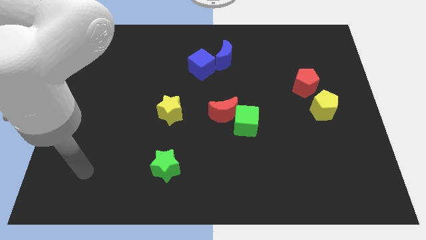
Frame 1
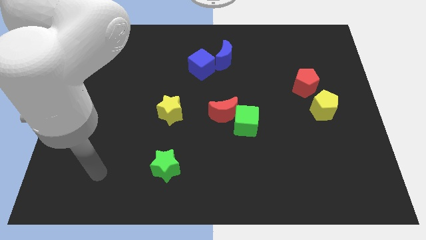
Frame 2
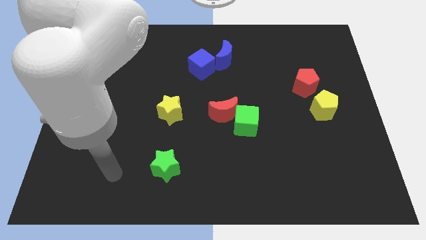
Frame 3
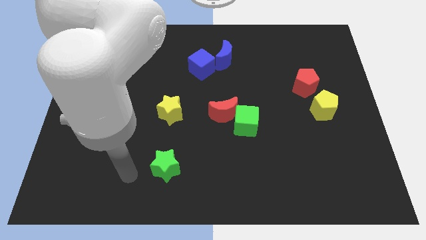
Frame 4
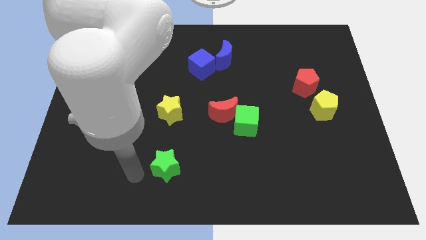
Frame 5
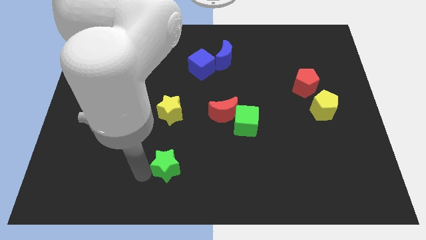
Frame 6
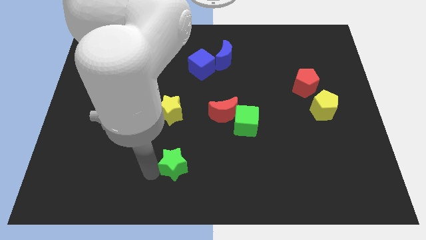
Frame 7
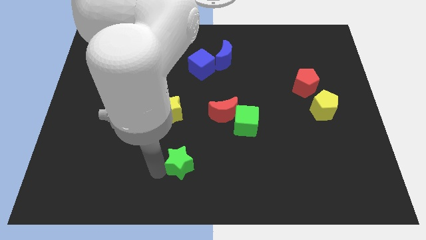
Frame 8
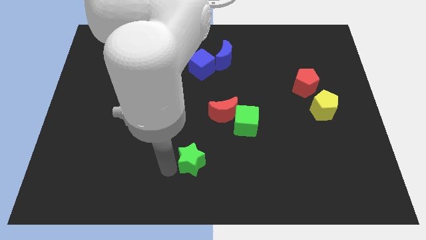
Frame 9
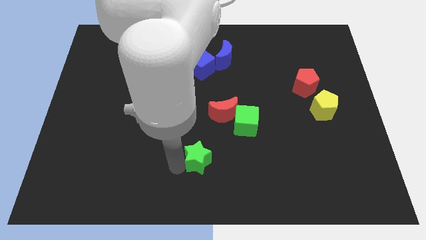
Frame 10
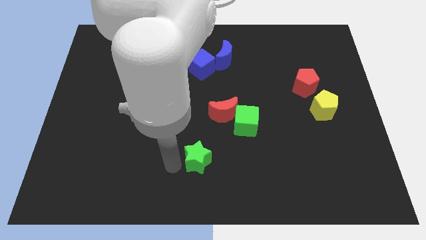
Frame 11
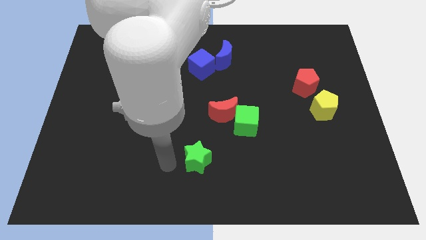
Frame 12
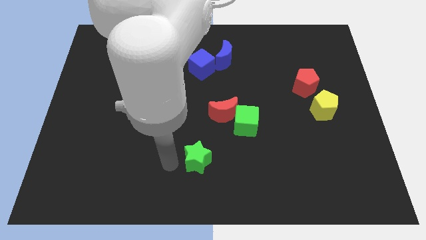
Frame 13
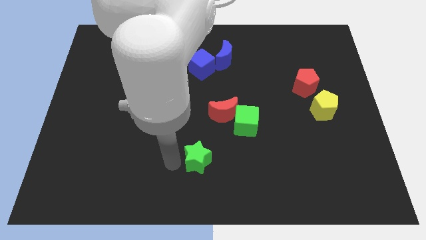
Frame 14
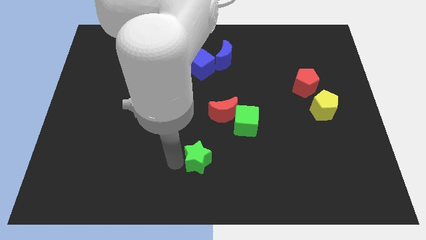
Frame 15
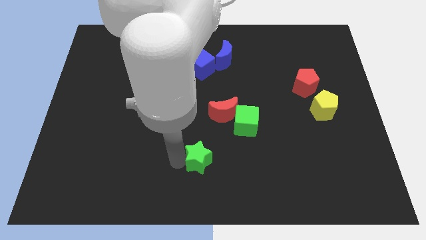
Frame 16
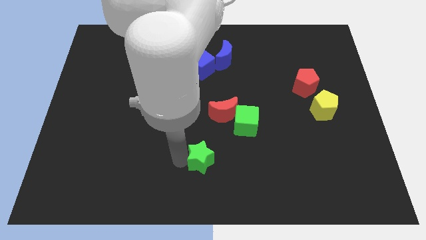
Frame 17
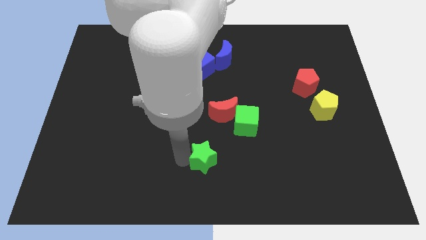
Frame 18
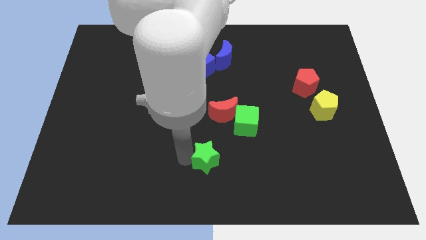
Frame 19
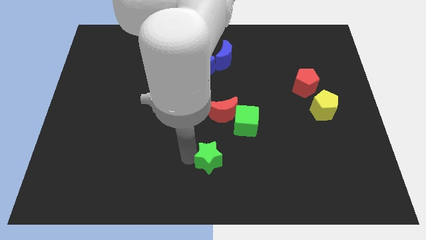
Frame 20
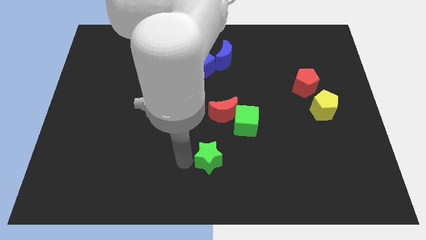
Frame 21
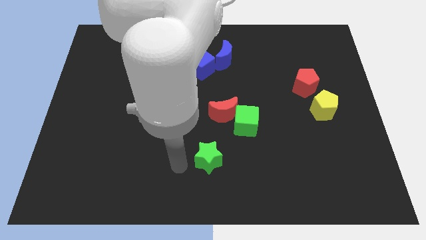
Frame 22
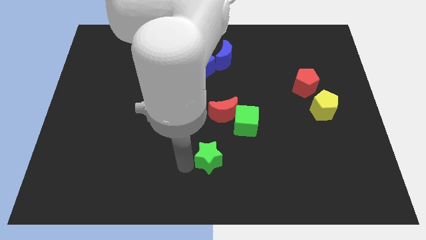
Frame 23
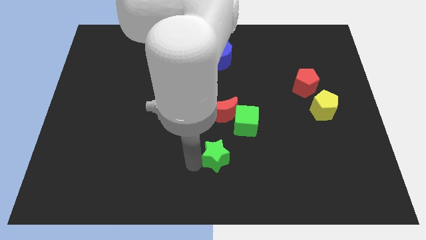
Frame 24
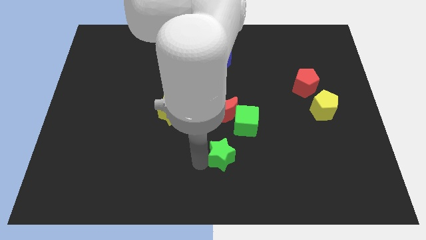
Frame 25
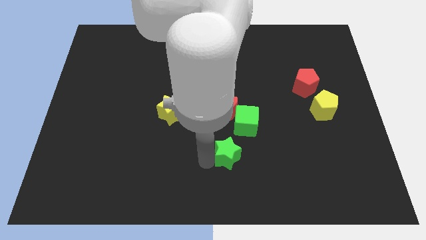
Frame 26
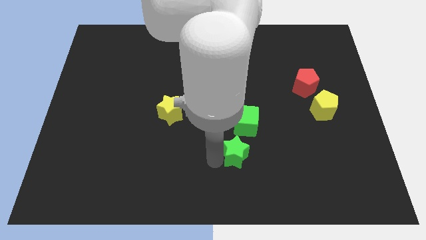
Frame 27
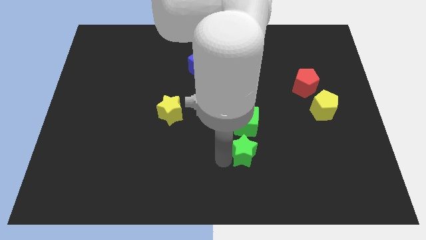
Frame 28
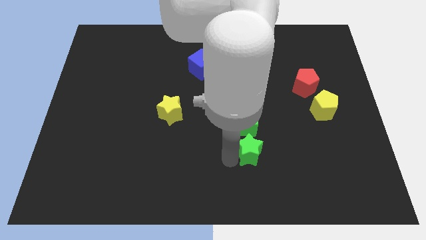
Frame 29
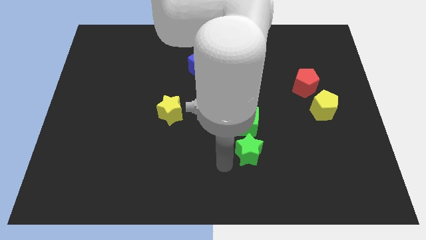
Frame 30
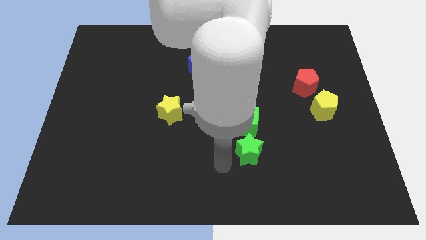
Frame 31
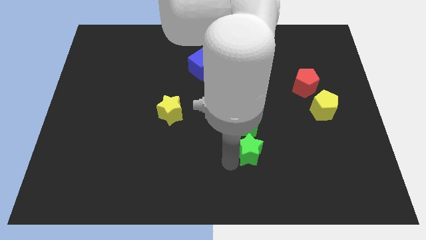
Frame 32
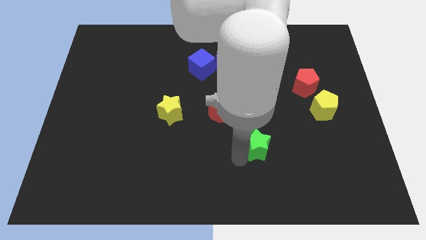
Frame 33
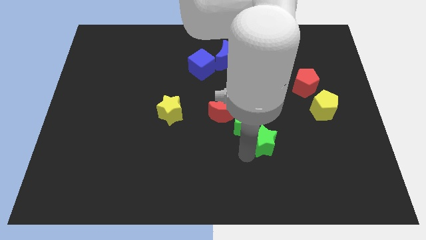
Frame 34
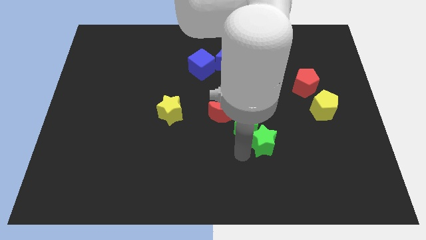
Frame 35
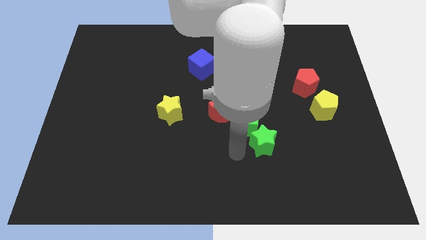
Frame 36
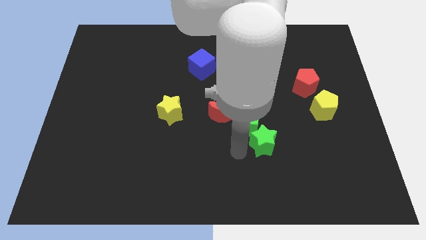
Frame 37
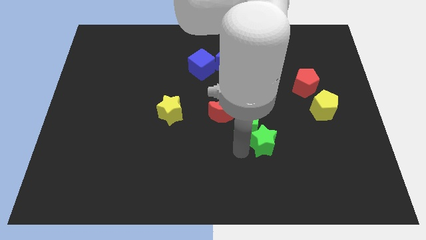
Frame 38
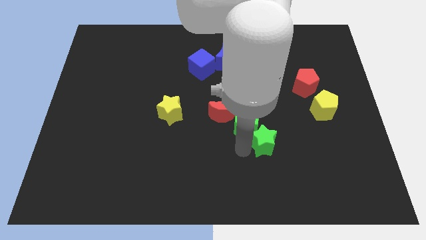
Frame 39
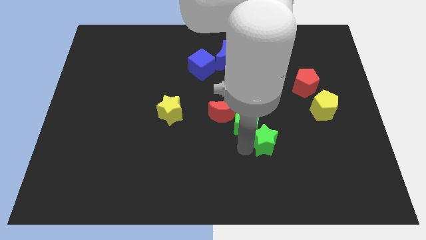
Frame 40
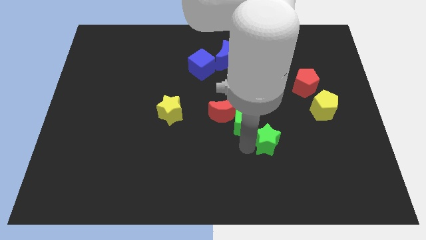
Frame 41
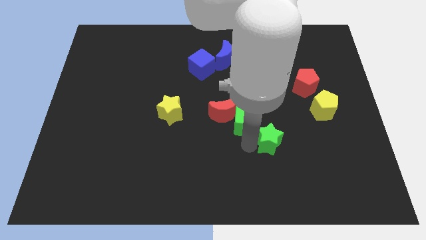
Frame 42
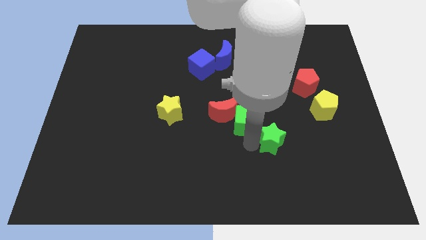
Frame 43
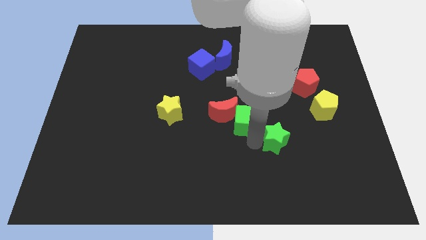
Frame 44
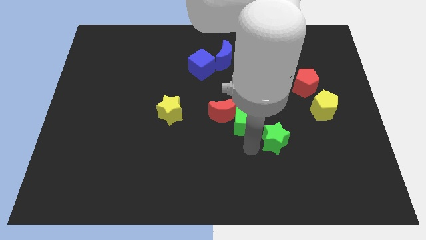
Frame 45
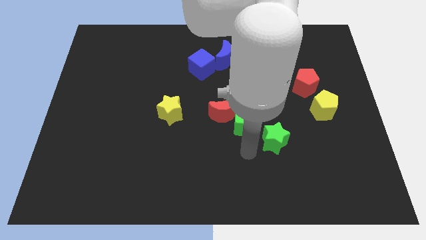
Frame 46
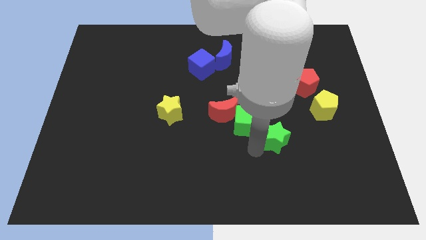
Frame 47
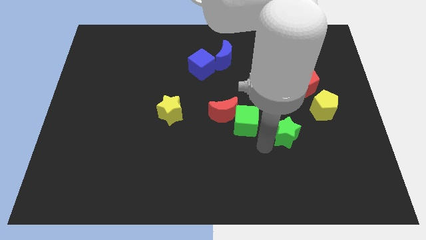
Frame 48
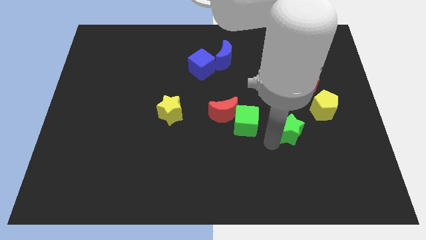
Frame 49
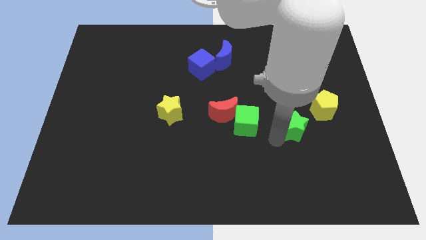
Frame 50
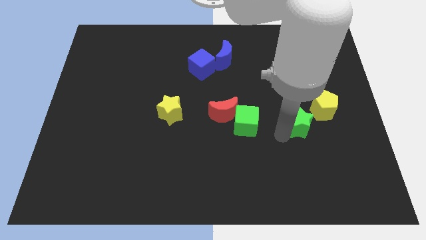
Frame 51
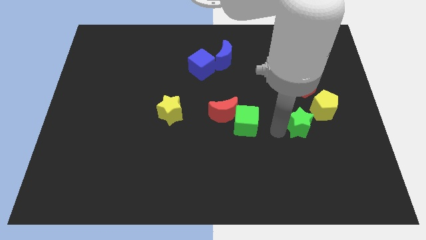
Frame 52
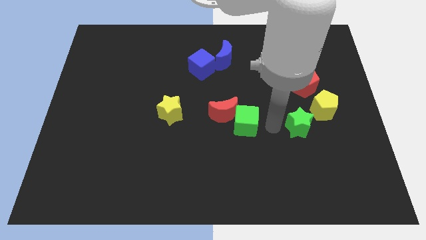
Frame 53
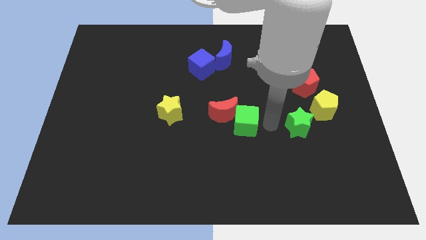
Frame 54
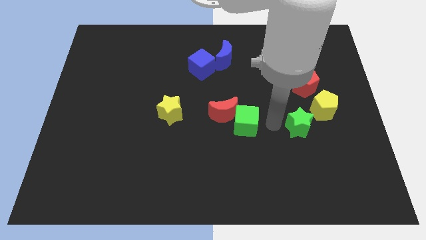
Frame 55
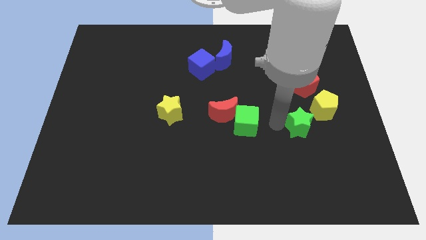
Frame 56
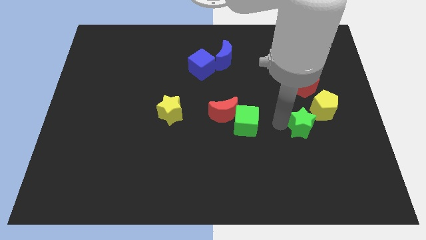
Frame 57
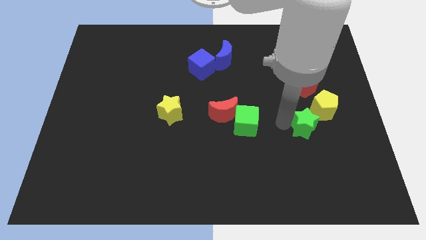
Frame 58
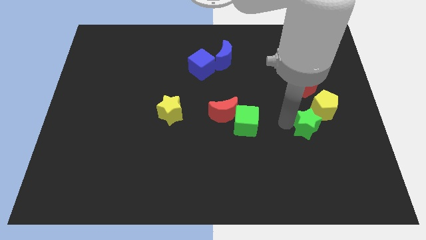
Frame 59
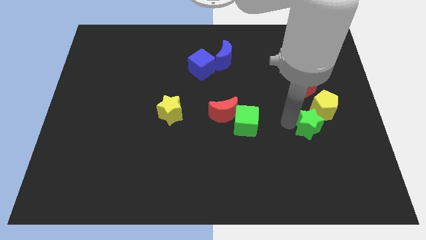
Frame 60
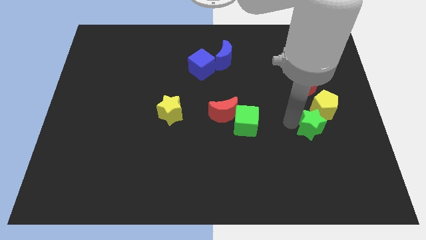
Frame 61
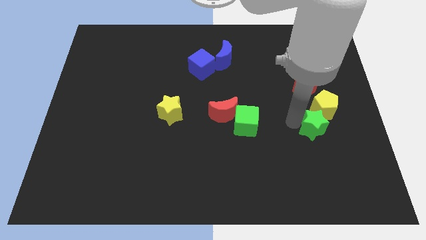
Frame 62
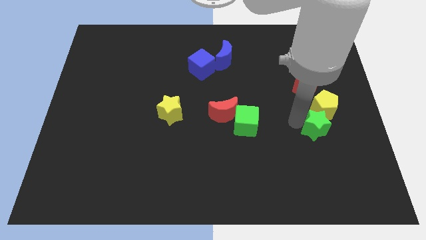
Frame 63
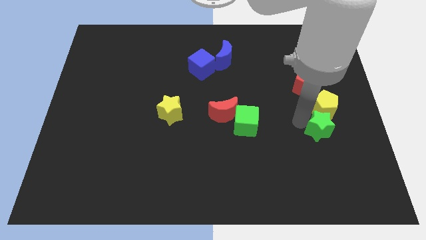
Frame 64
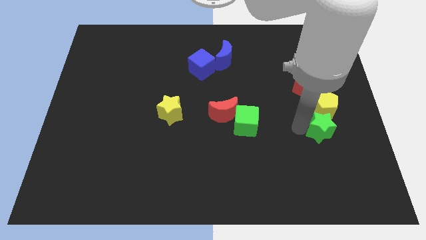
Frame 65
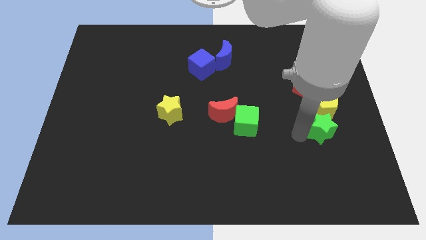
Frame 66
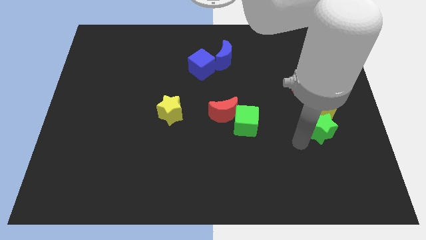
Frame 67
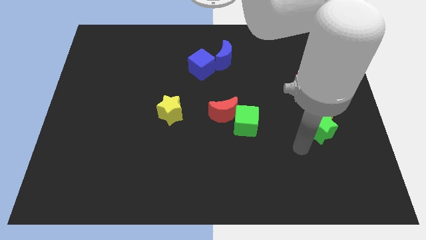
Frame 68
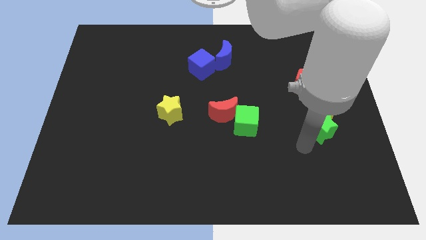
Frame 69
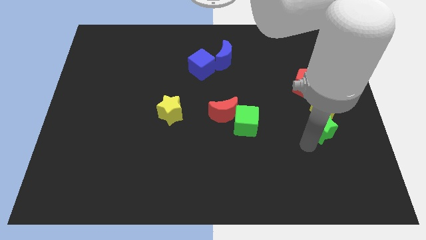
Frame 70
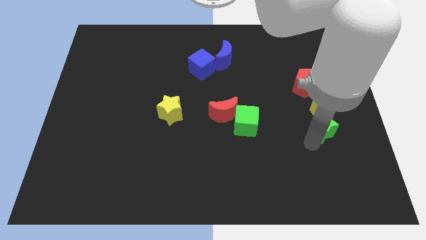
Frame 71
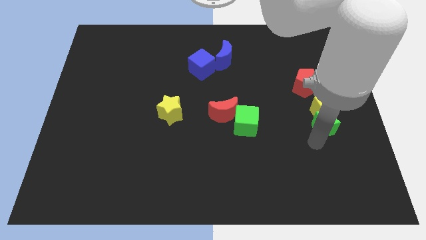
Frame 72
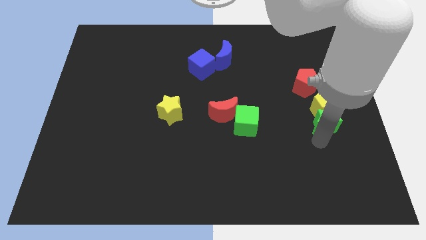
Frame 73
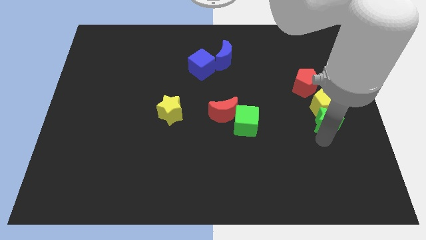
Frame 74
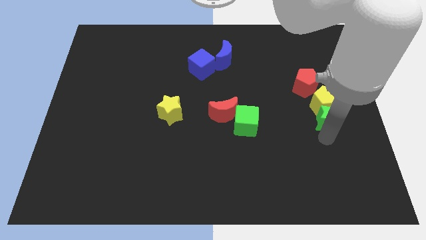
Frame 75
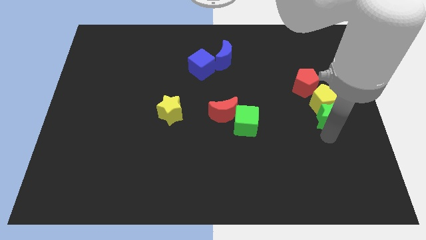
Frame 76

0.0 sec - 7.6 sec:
slide the green star to the right side
